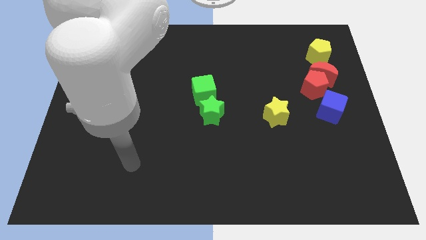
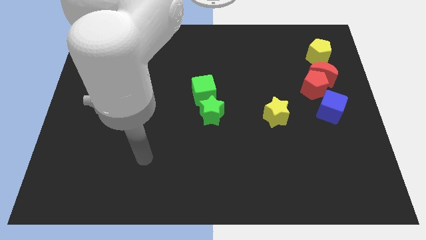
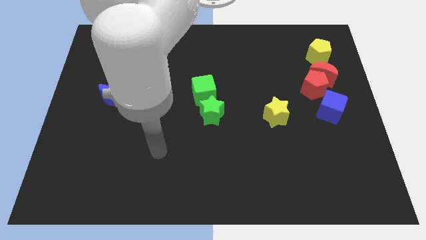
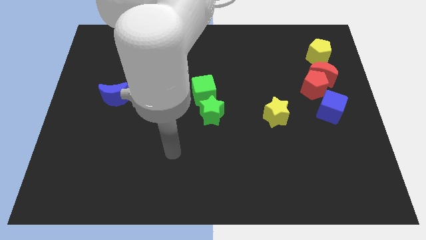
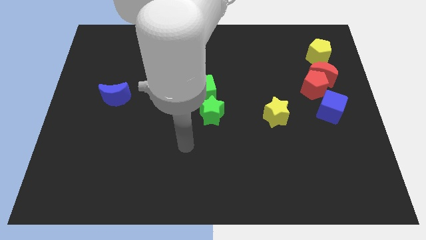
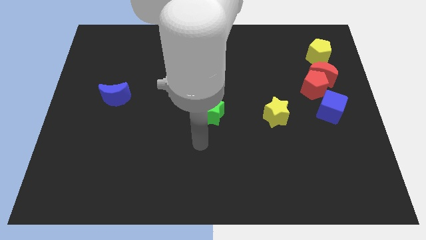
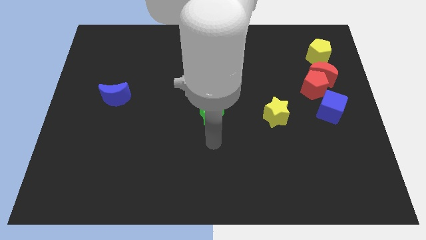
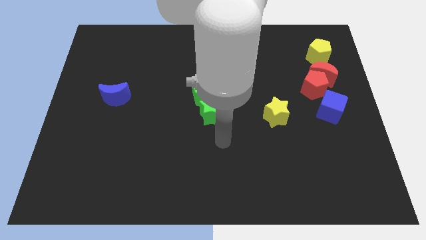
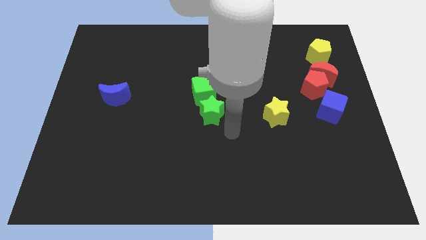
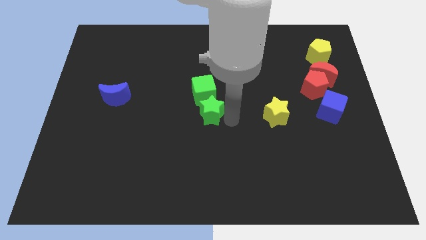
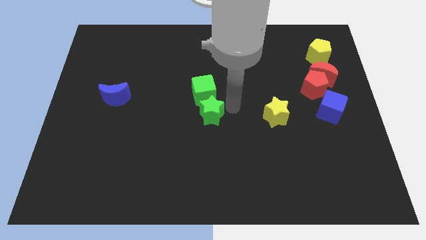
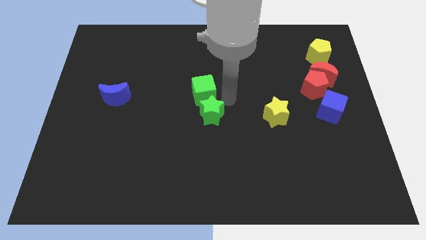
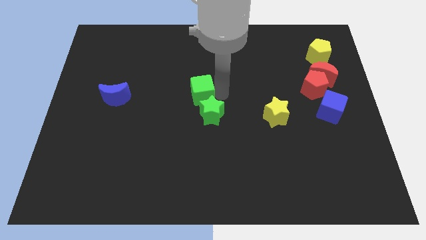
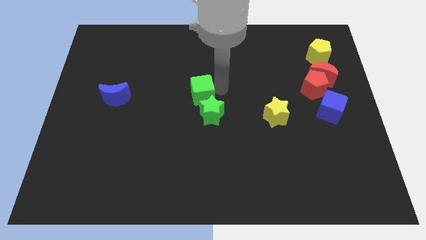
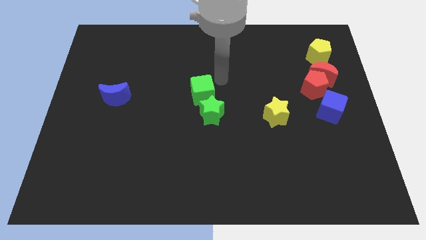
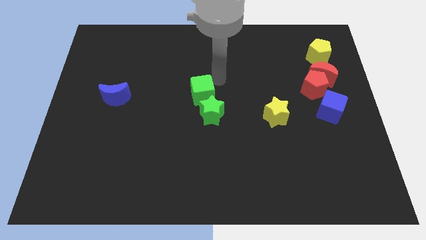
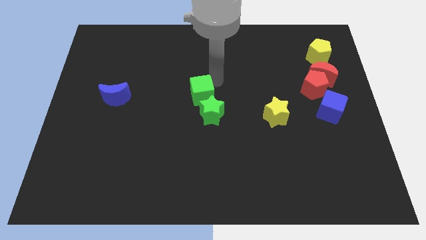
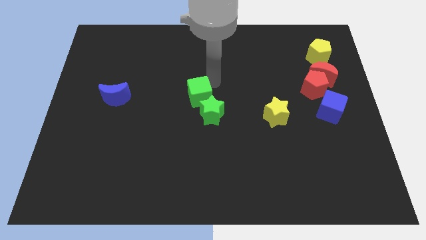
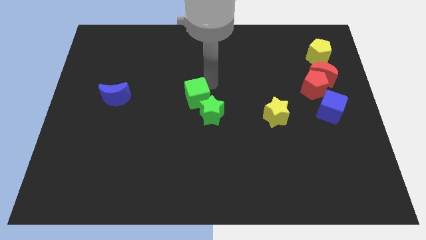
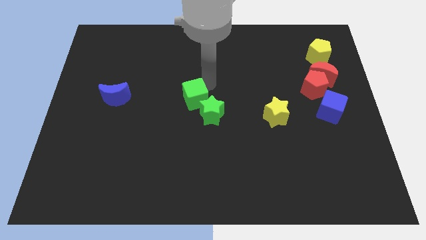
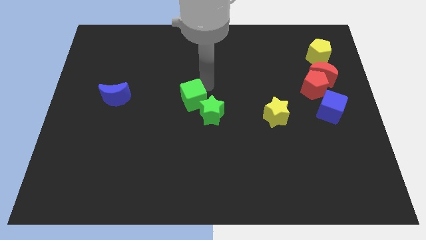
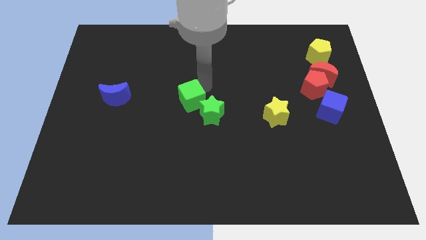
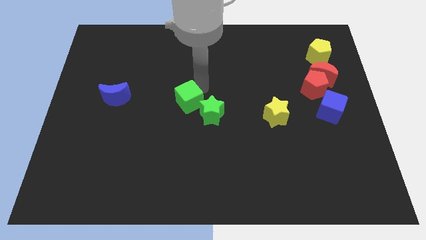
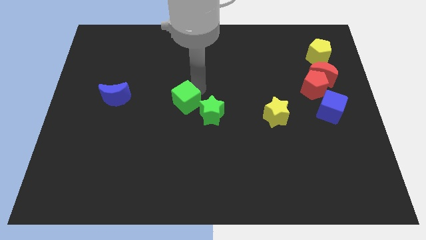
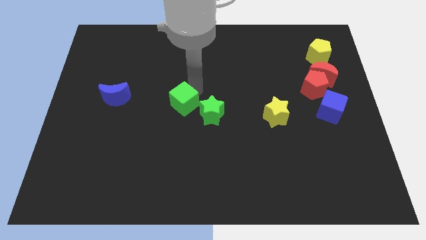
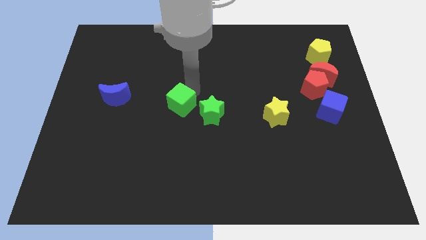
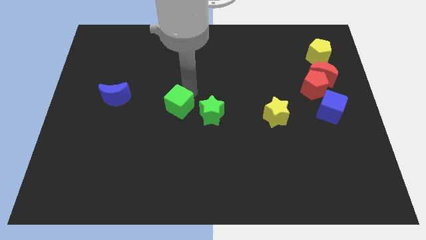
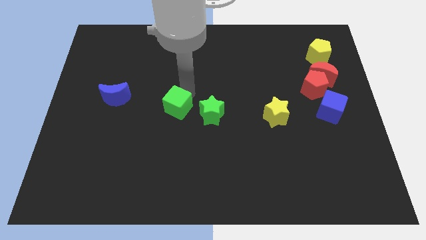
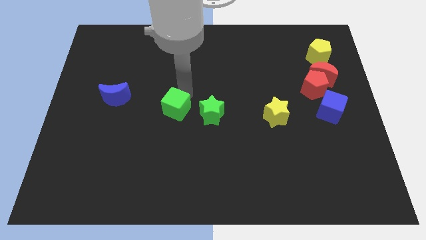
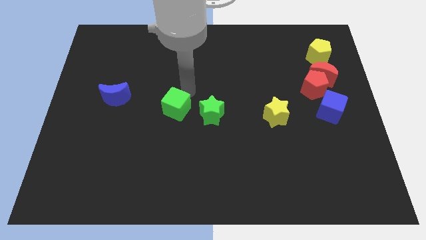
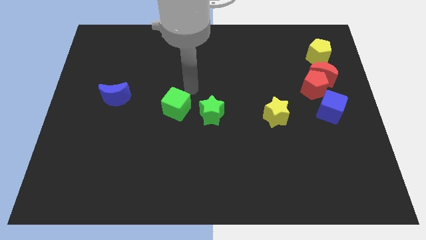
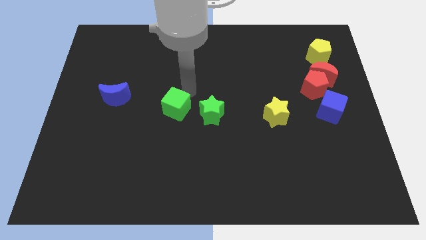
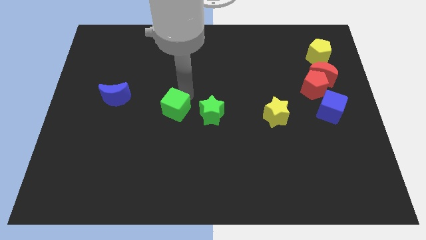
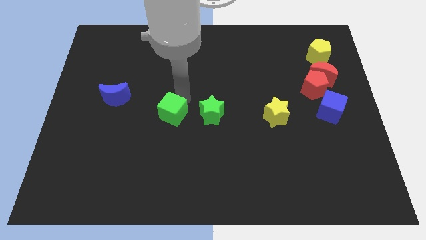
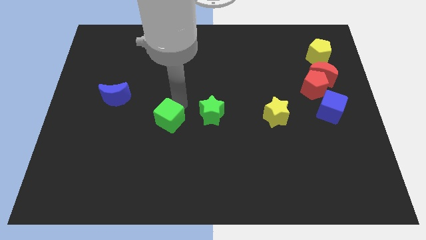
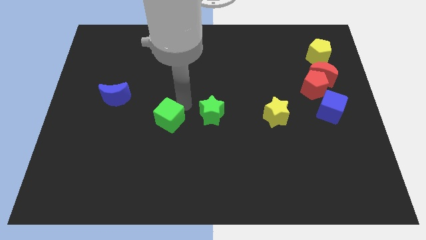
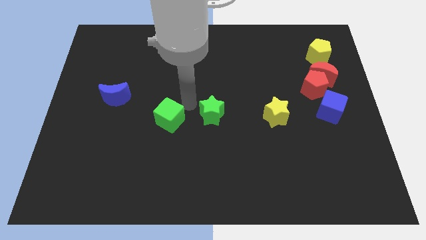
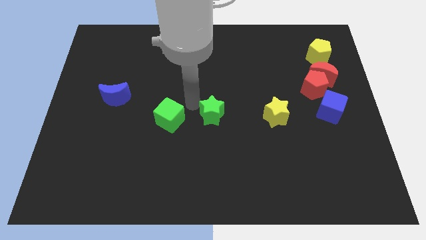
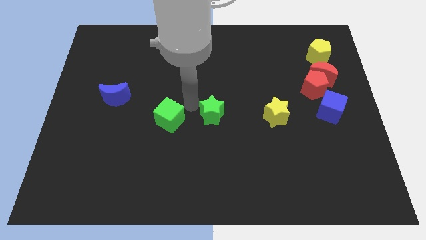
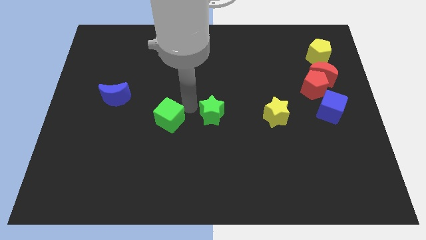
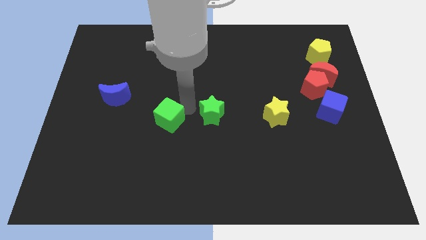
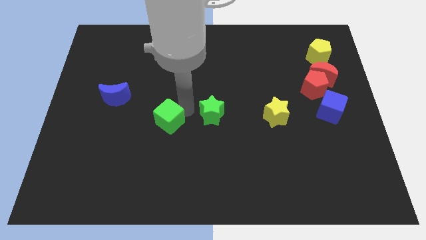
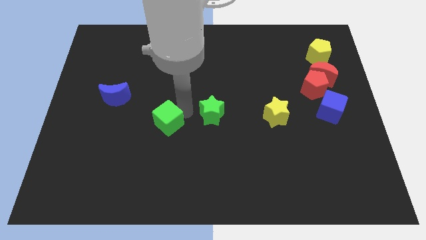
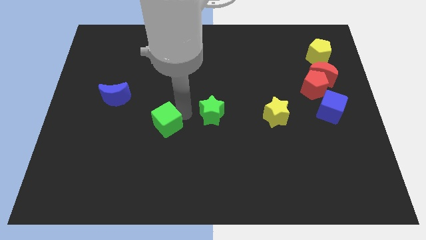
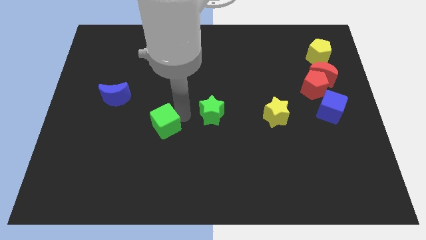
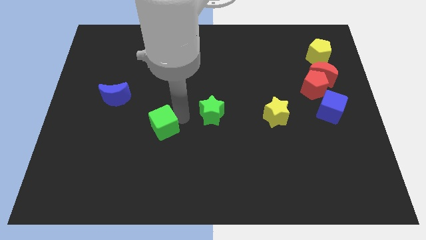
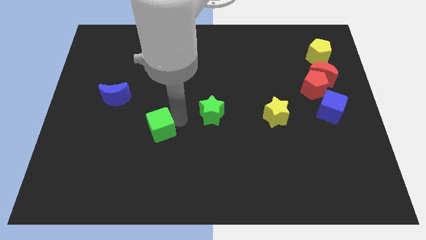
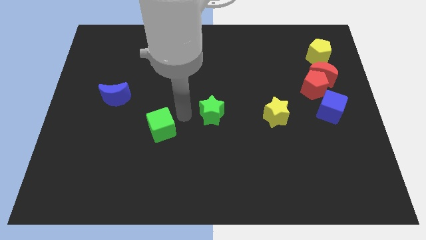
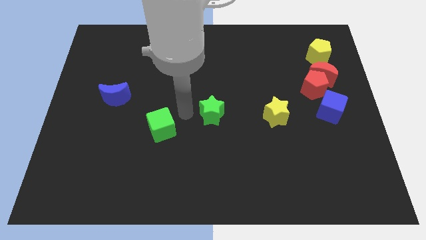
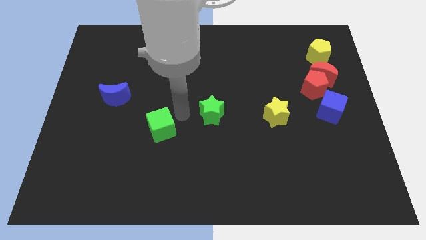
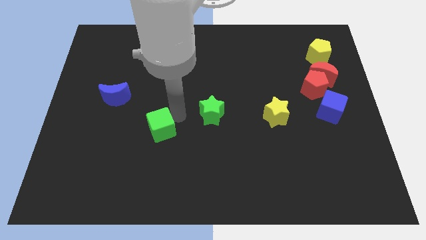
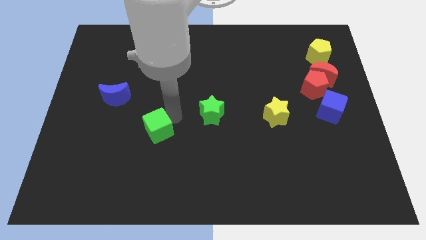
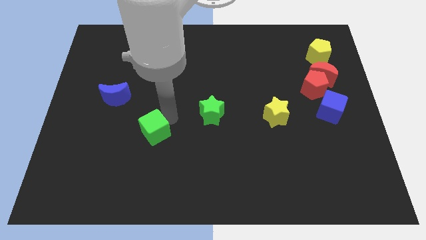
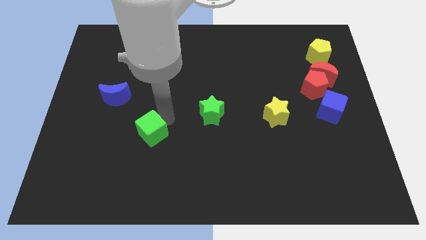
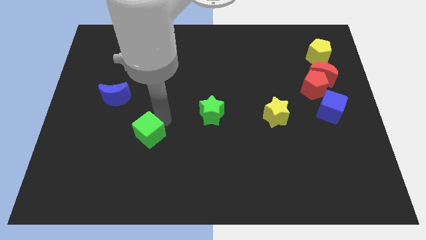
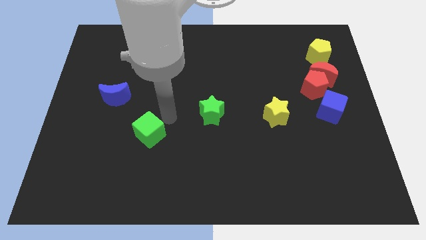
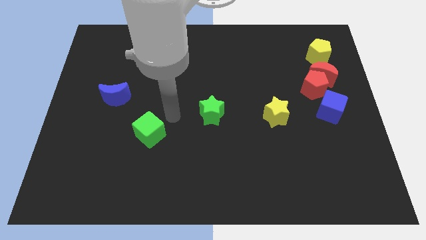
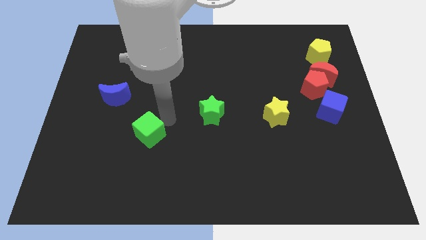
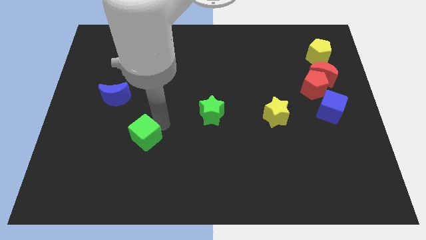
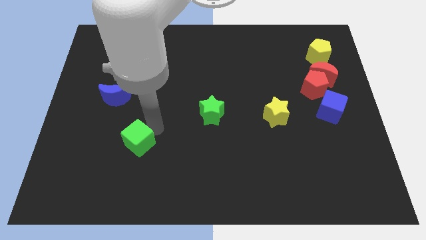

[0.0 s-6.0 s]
slide the green cube down and then left

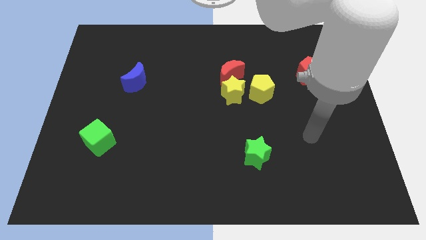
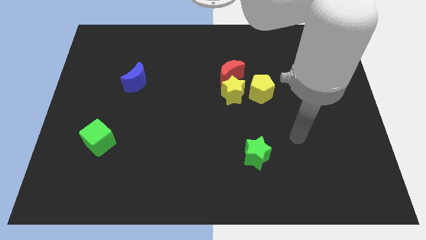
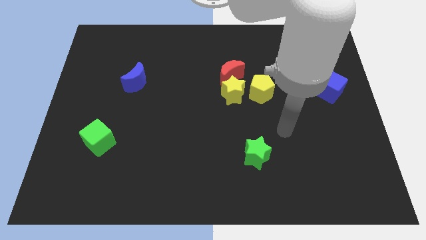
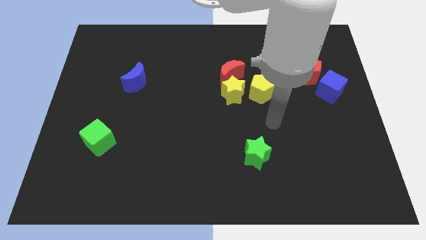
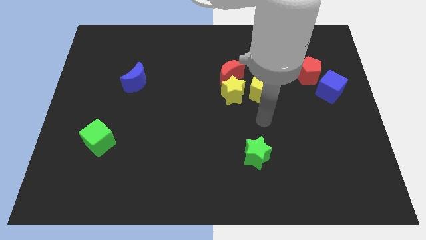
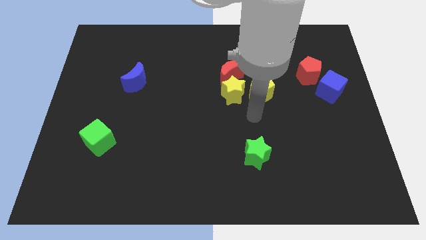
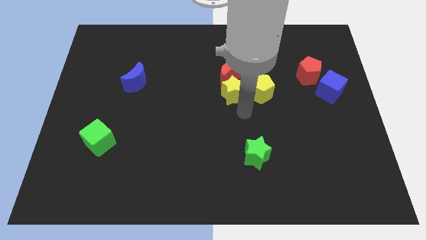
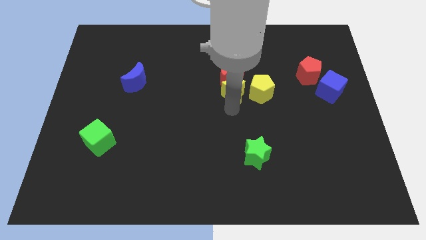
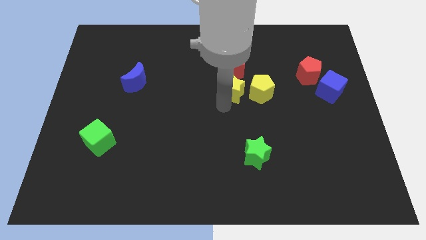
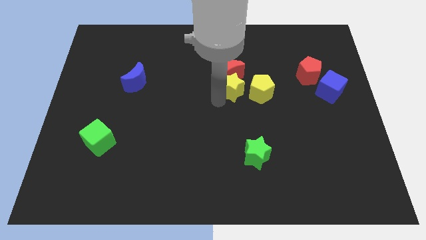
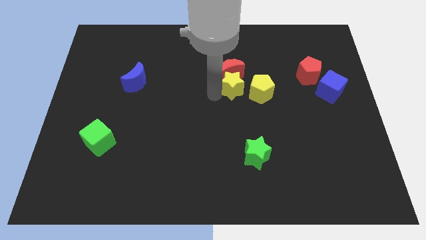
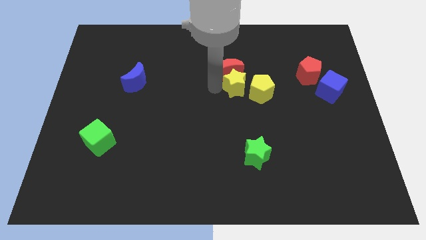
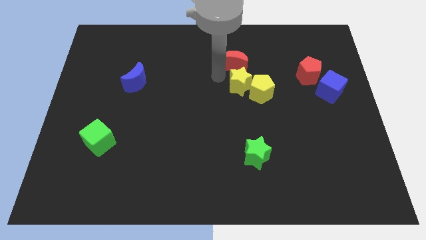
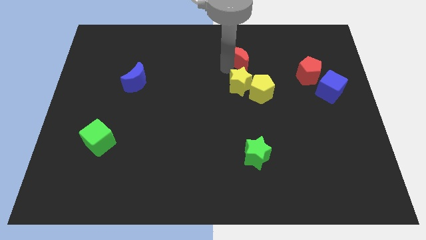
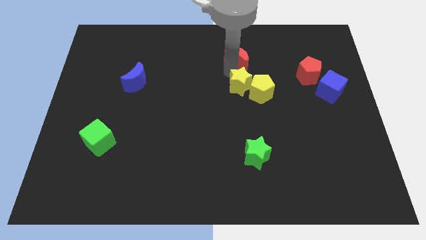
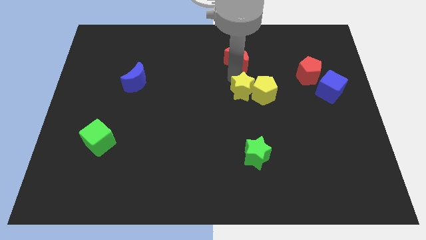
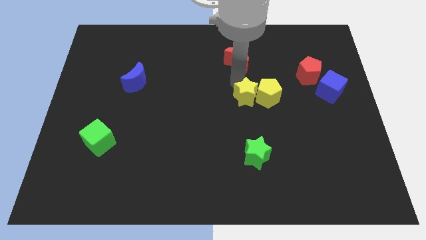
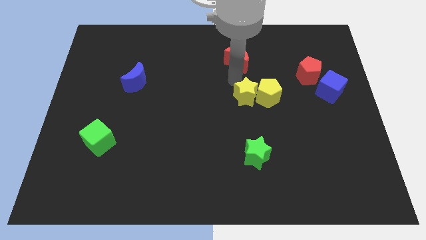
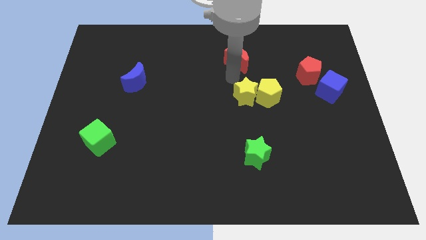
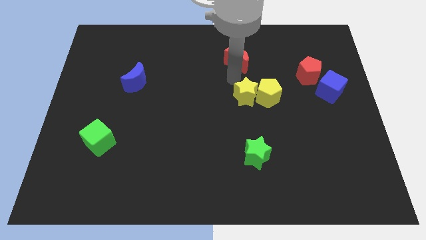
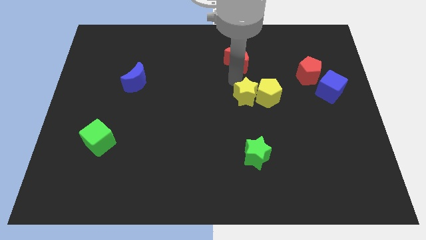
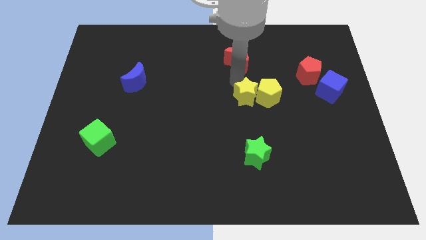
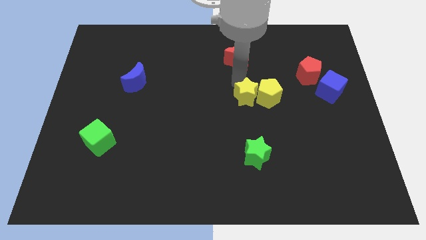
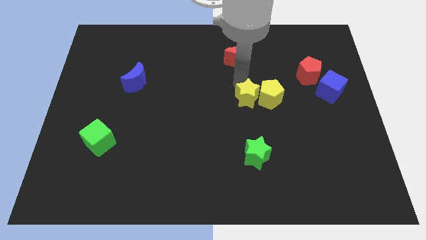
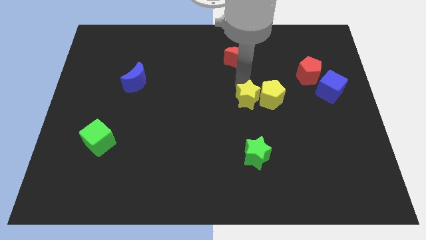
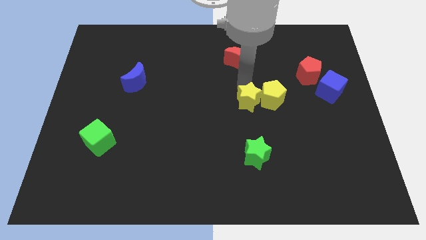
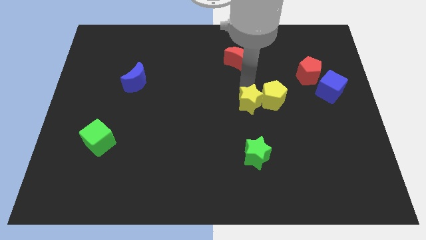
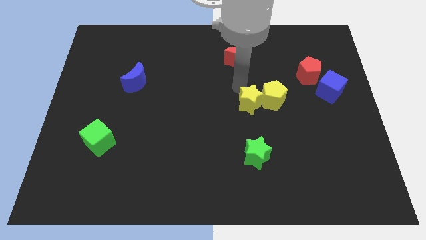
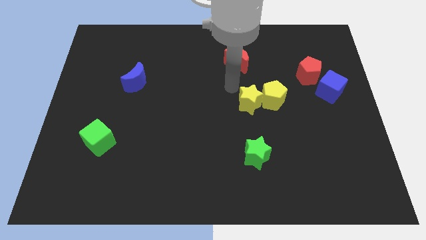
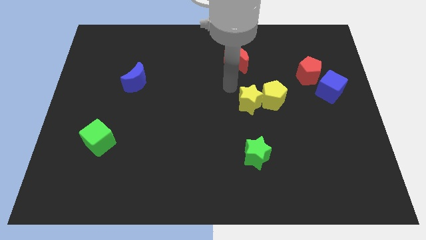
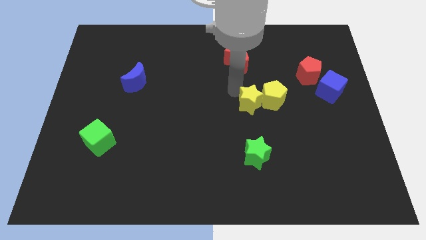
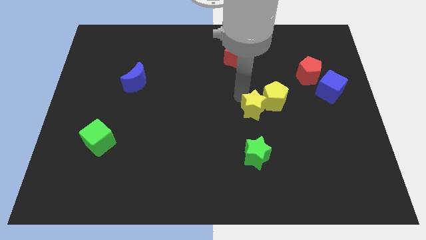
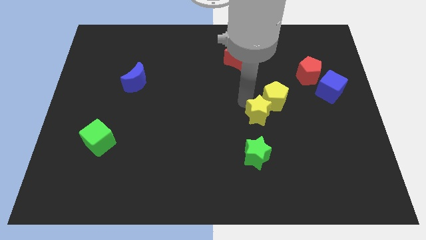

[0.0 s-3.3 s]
push the yellow star down and then right somewhat
